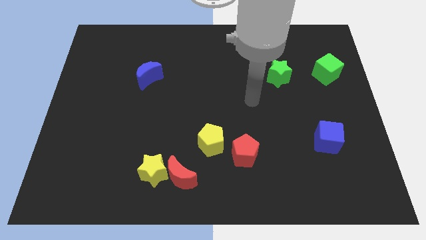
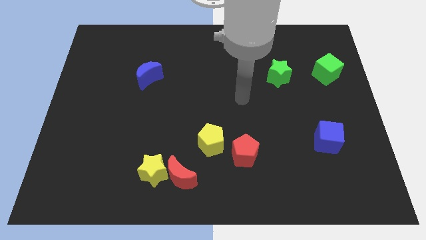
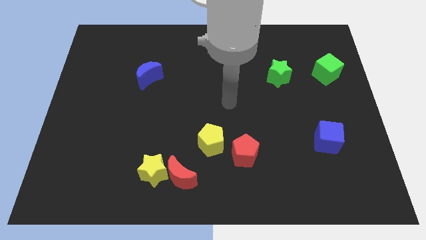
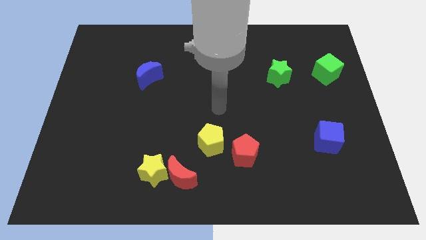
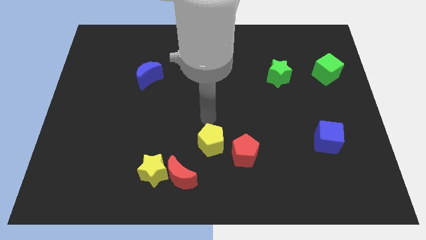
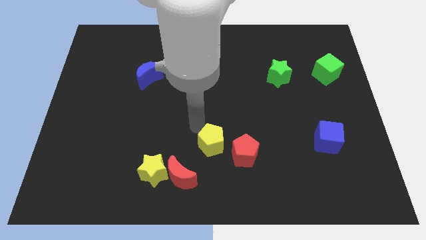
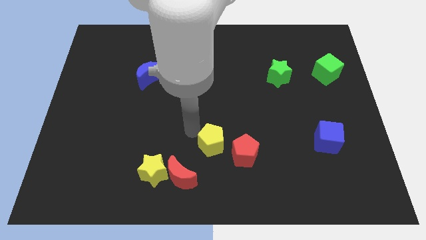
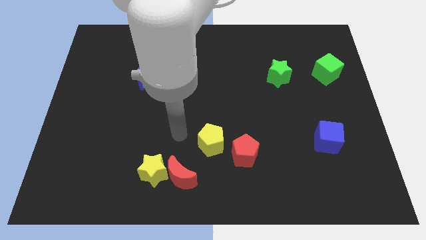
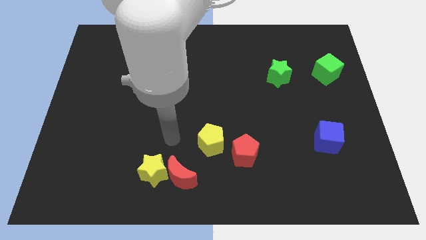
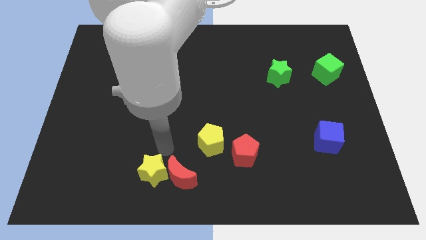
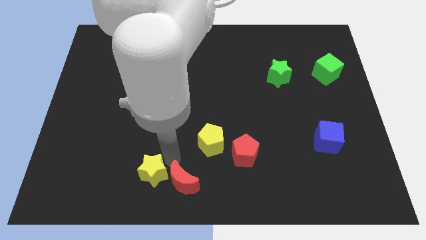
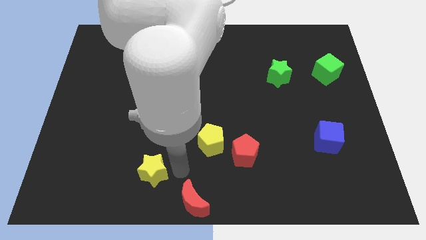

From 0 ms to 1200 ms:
pull the yellow star apart from the red moon

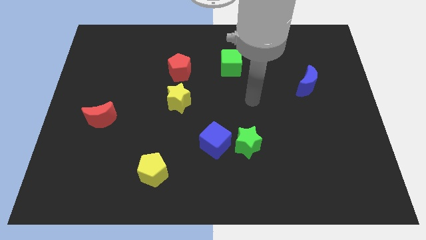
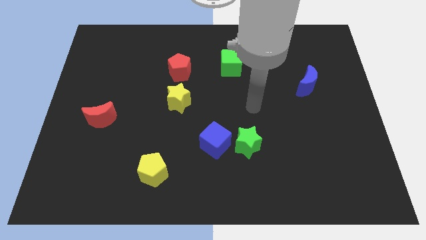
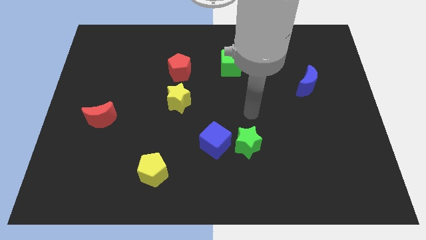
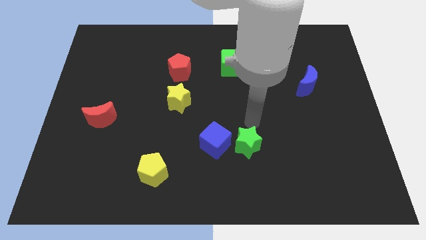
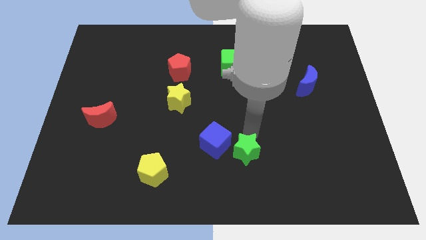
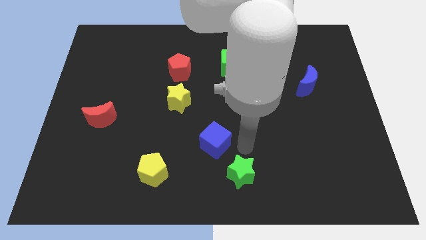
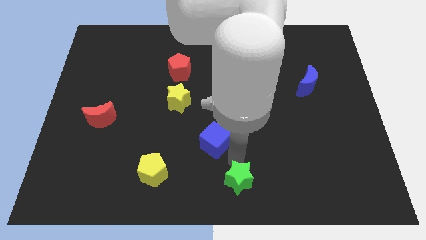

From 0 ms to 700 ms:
pull the blue cube apart from the green star

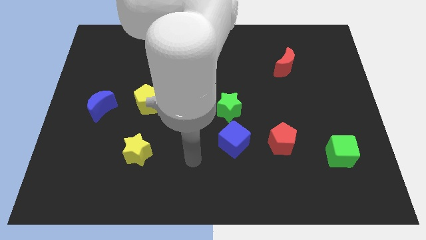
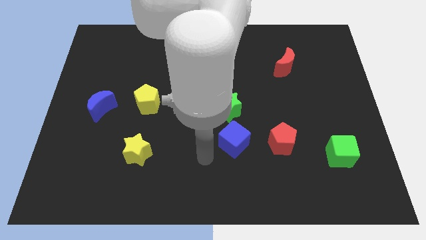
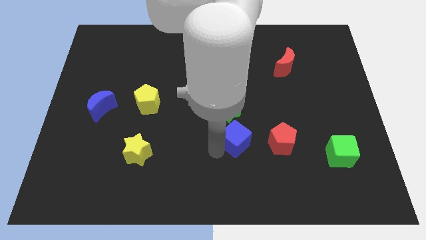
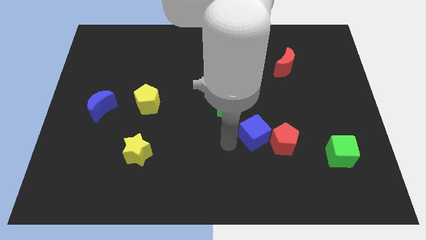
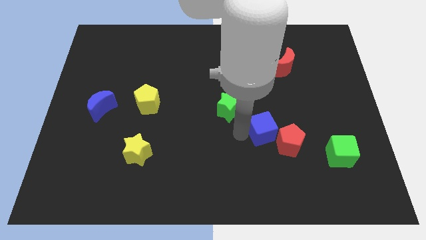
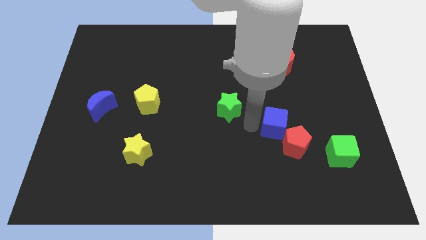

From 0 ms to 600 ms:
separate the green star from the blue cube

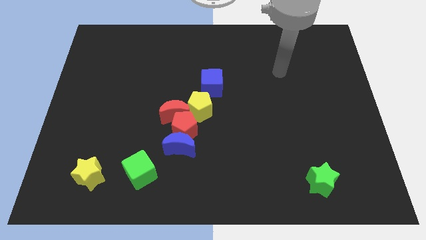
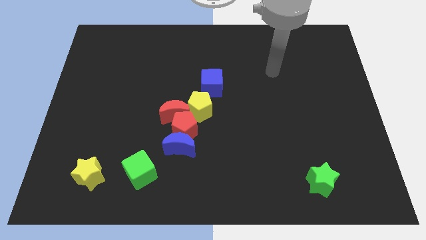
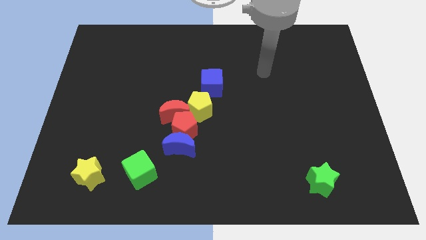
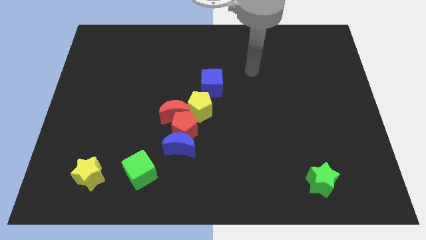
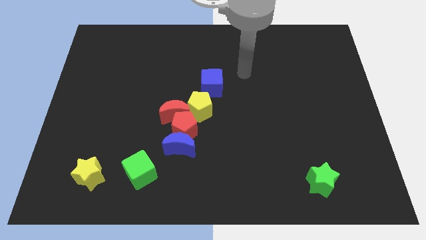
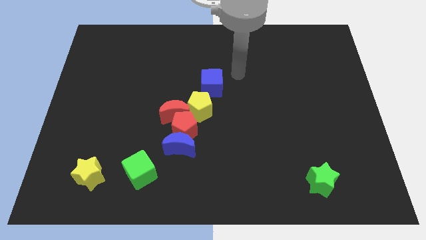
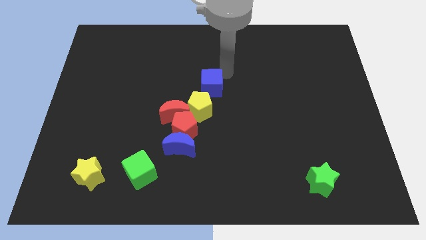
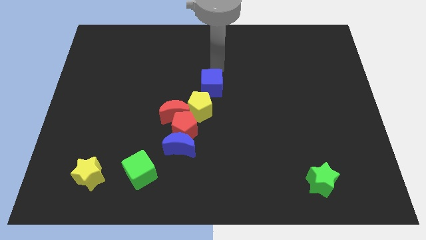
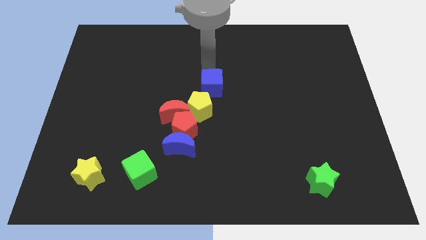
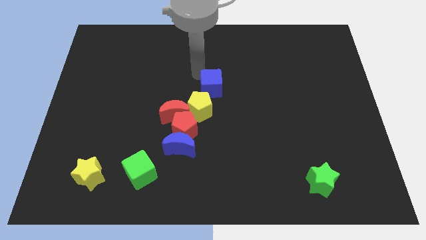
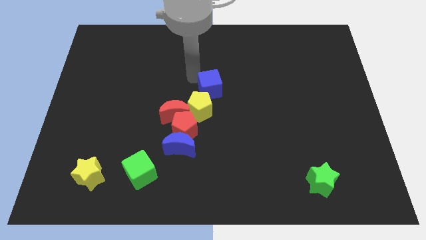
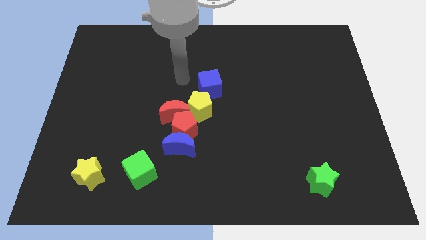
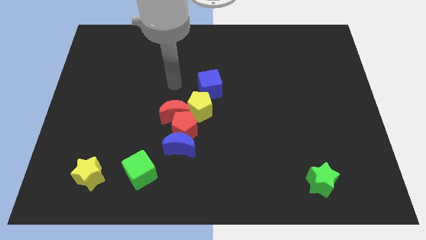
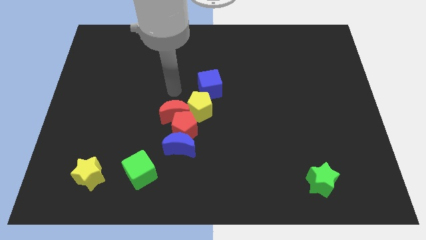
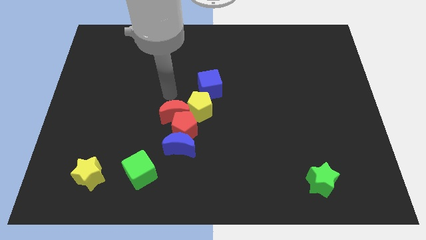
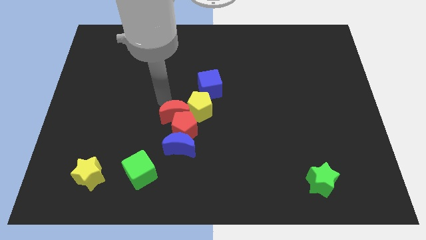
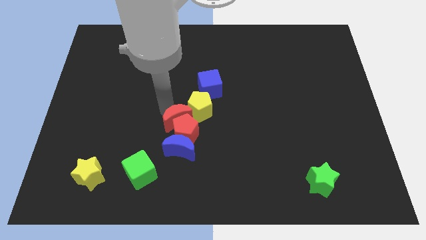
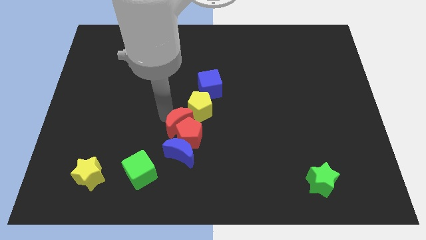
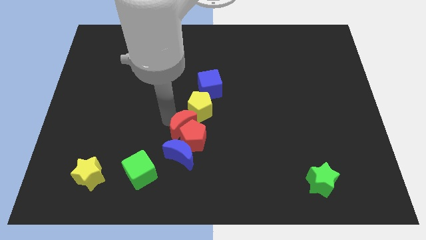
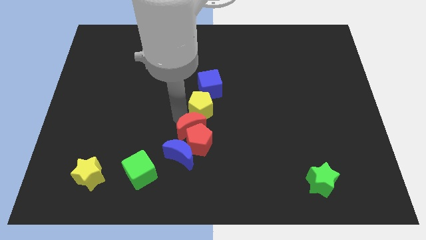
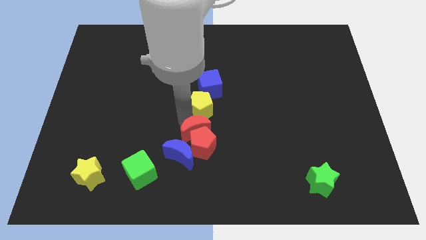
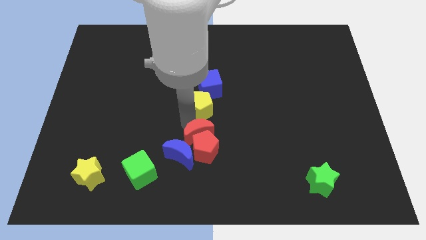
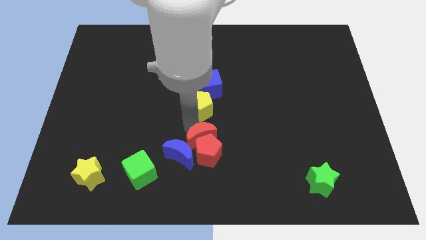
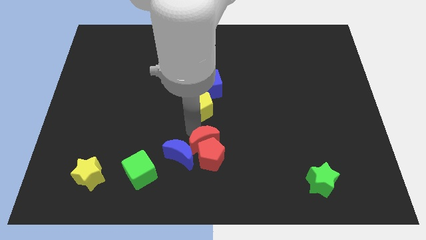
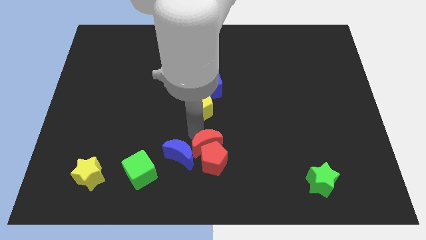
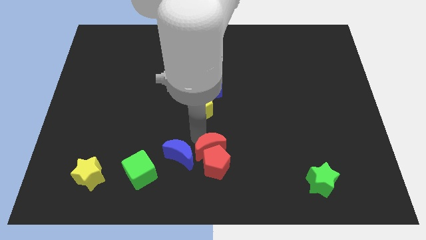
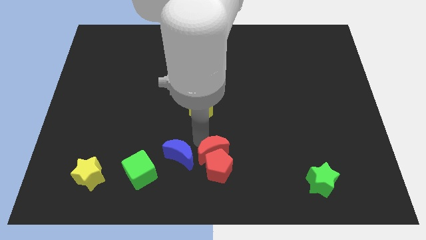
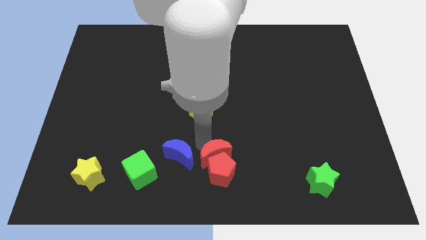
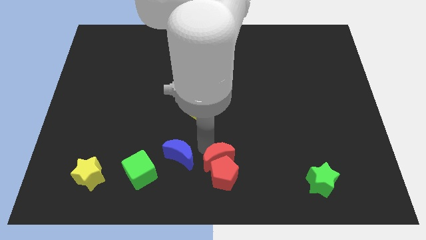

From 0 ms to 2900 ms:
pull the red pentagon apart from the group

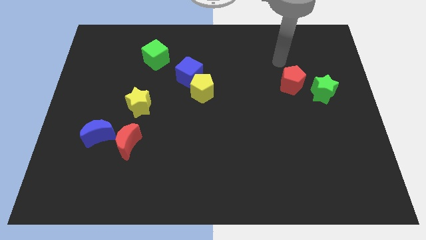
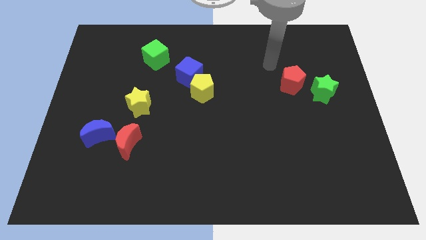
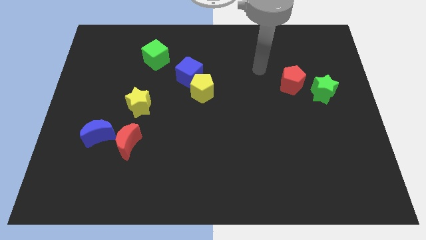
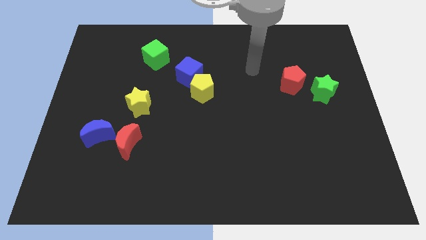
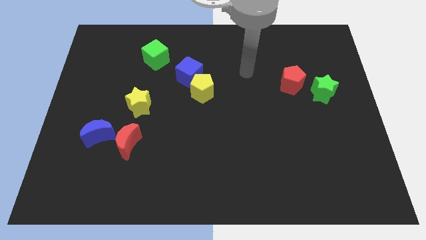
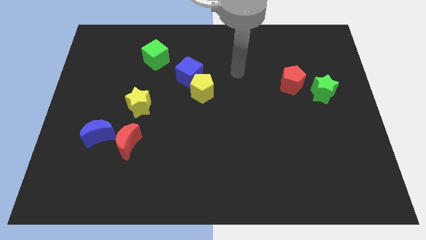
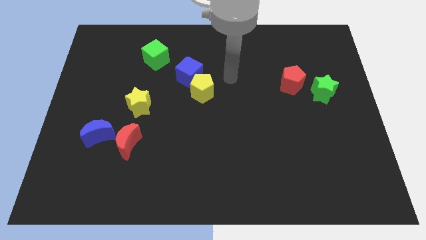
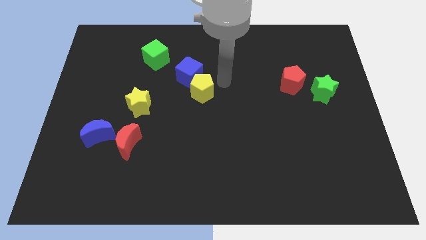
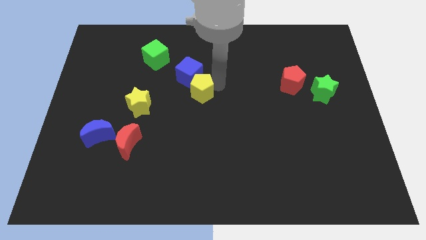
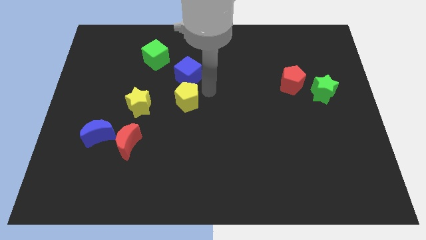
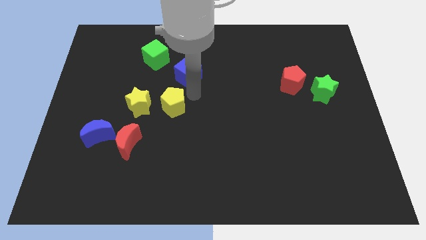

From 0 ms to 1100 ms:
move the blue cube away from the yellow pentagon

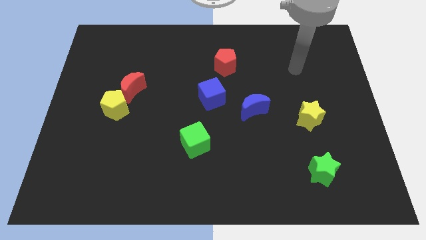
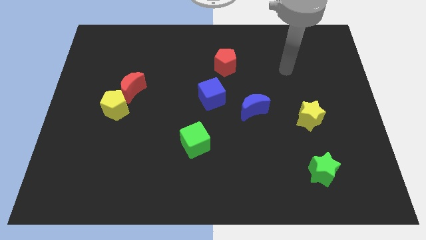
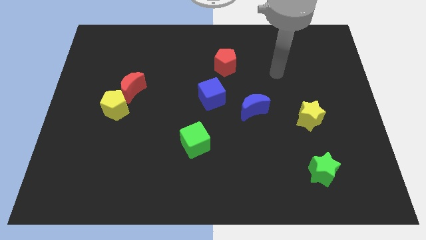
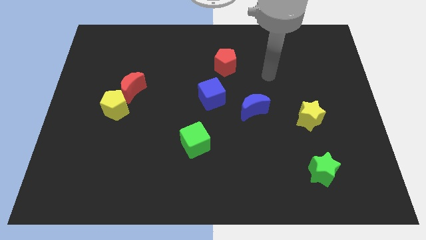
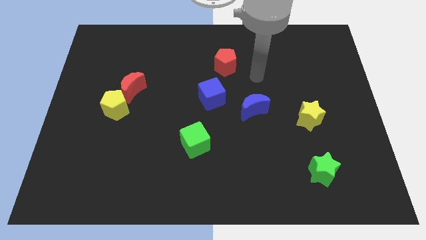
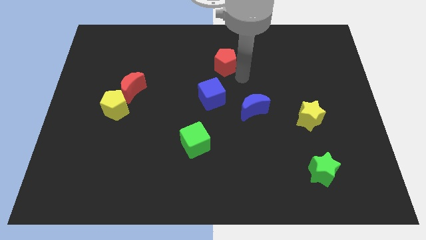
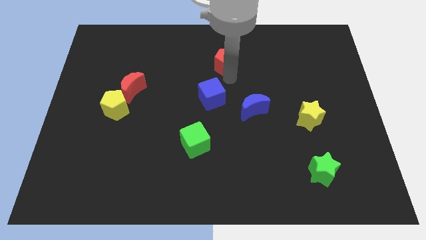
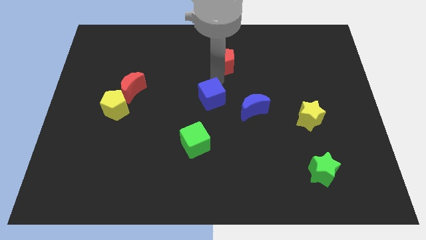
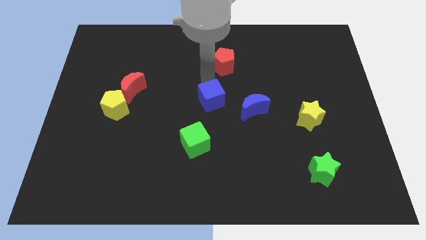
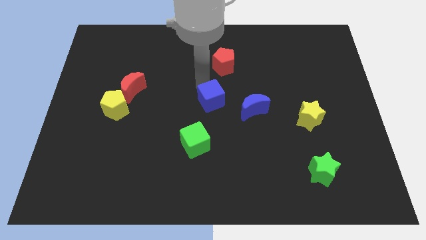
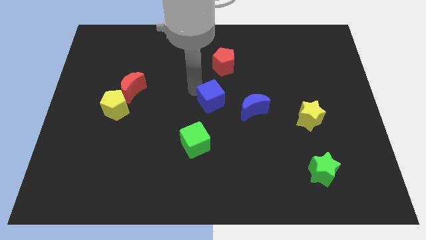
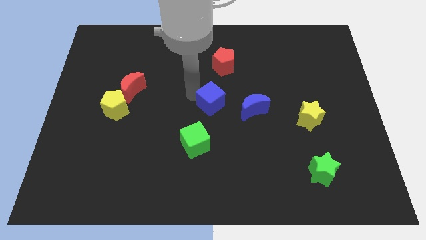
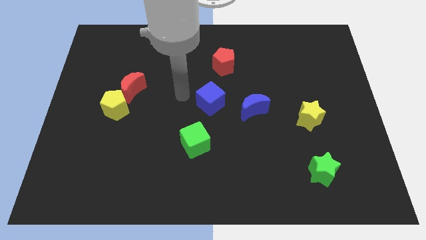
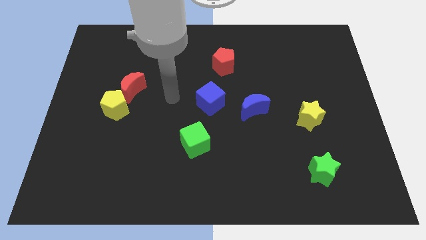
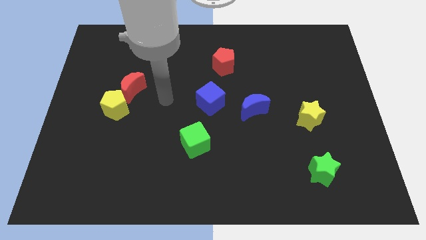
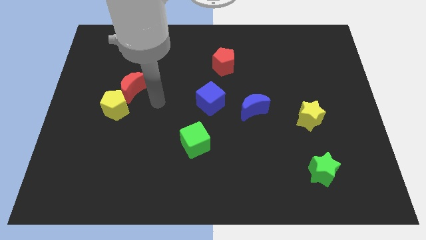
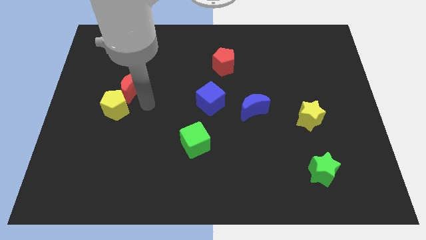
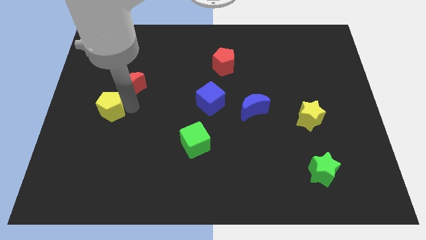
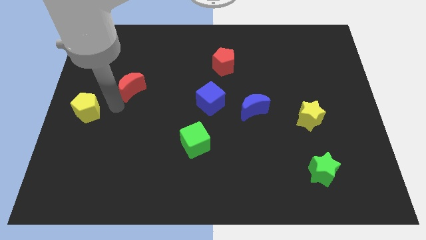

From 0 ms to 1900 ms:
separate the red moon from the yellow pentagon

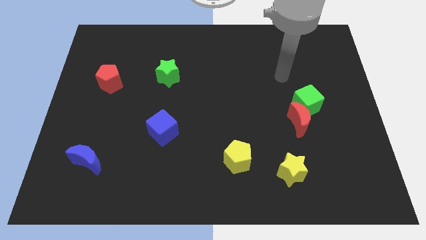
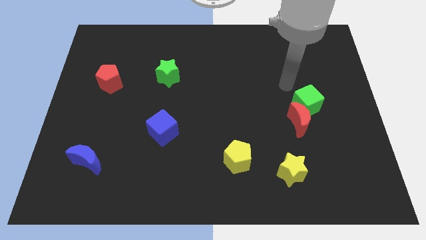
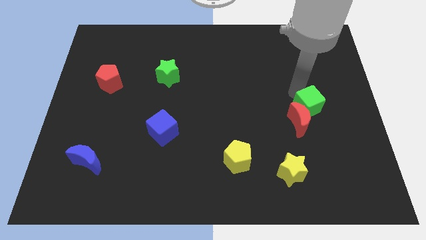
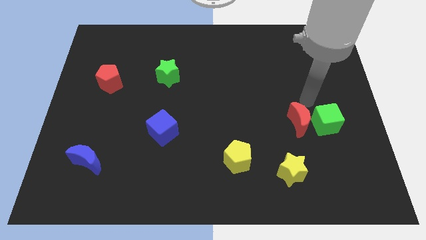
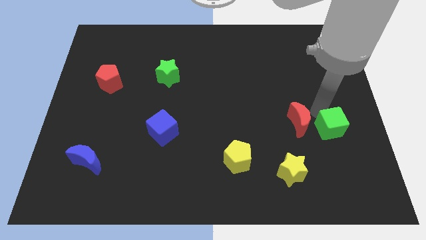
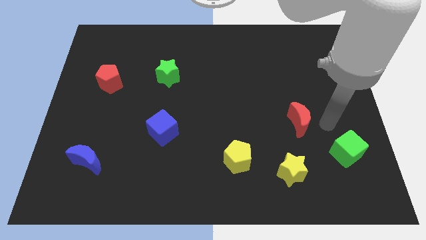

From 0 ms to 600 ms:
move the red moon away from the green cube

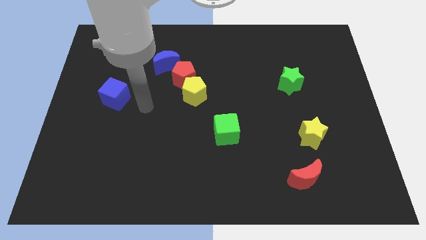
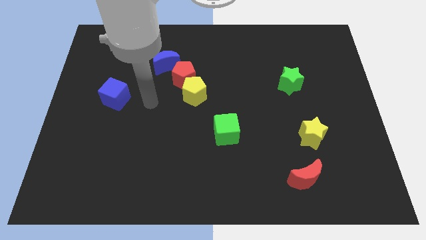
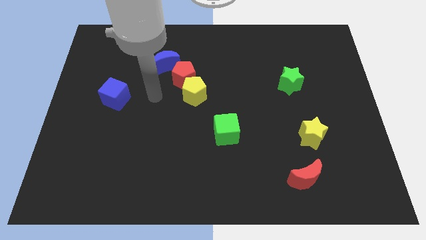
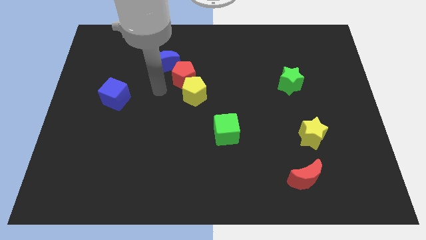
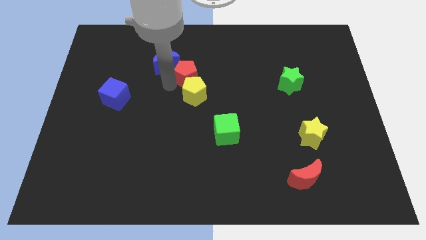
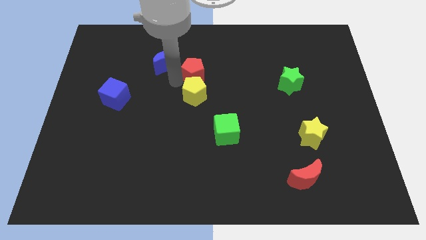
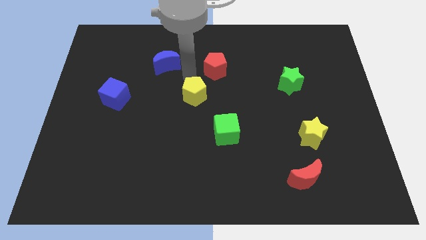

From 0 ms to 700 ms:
separate the yellow pentagon from the red pentagon
